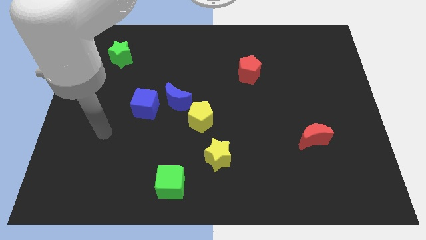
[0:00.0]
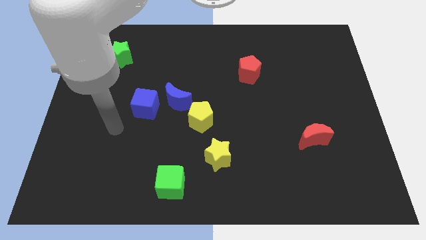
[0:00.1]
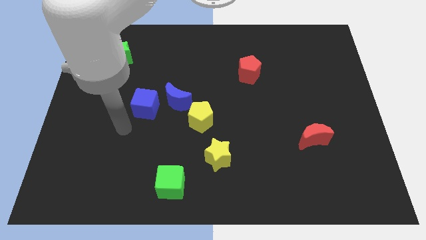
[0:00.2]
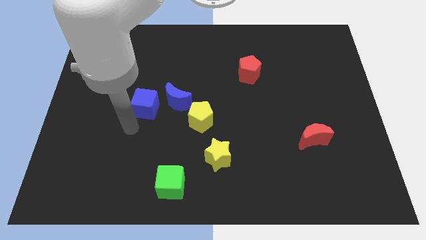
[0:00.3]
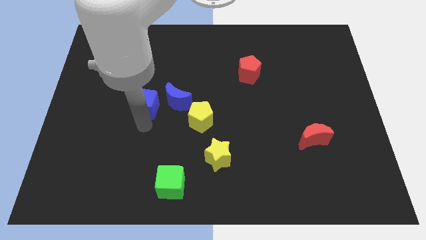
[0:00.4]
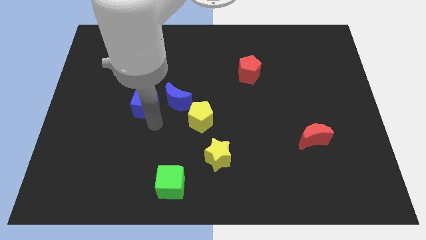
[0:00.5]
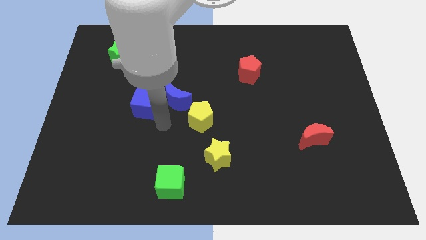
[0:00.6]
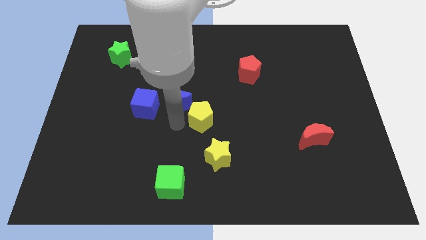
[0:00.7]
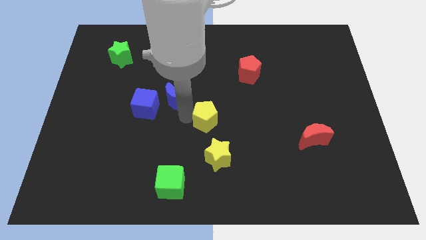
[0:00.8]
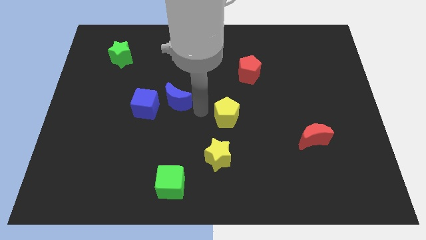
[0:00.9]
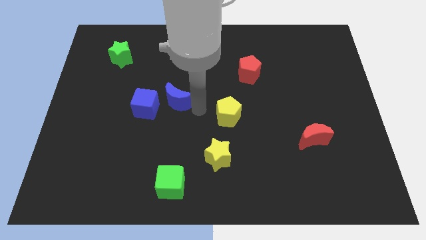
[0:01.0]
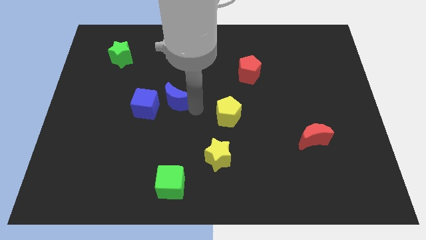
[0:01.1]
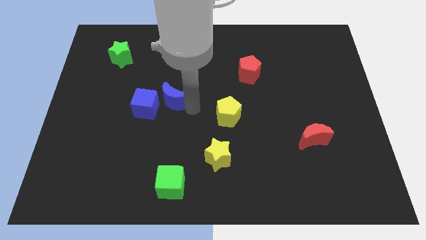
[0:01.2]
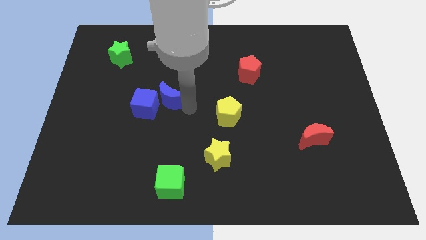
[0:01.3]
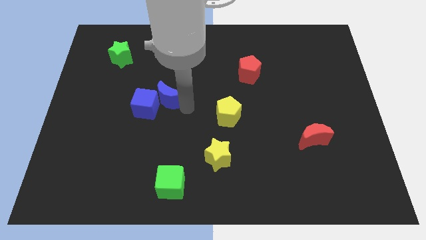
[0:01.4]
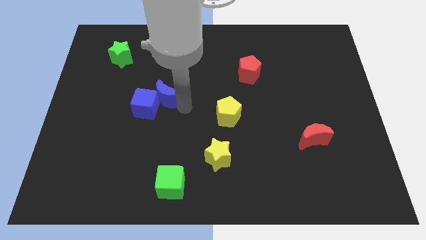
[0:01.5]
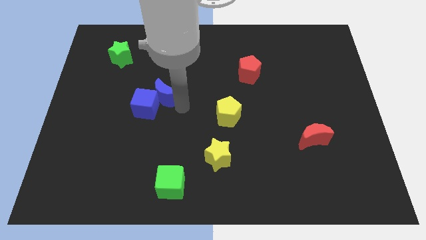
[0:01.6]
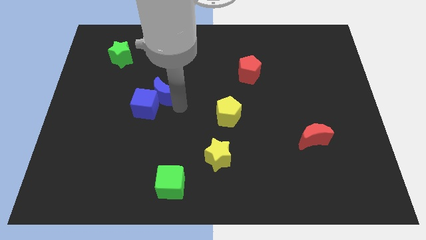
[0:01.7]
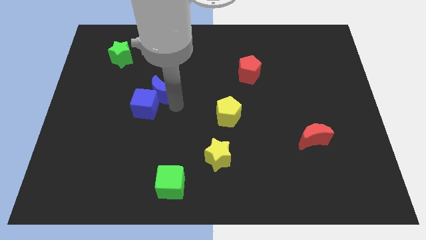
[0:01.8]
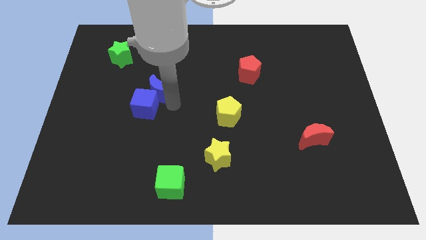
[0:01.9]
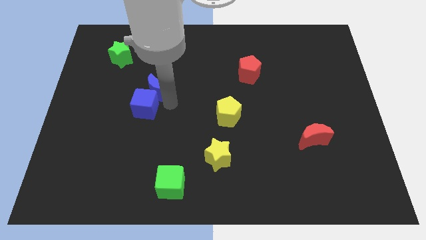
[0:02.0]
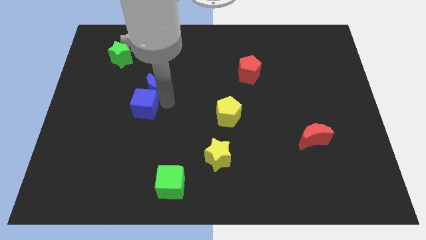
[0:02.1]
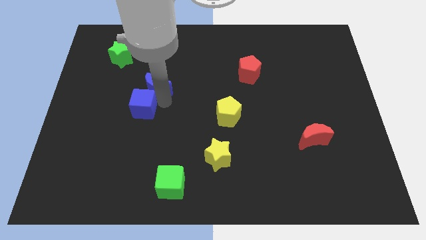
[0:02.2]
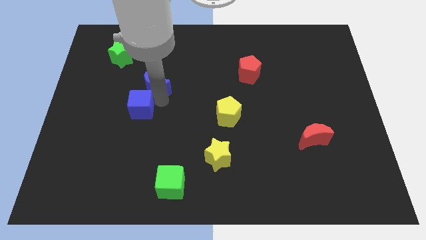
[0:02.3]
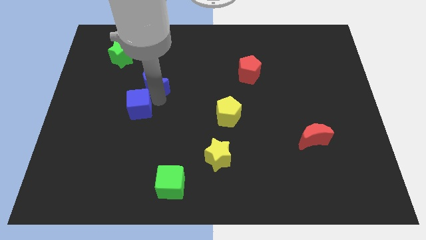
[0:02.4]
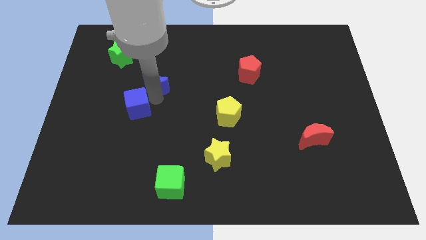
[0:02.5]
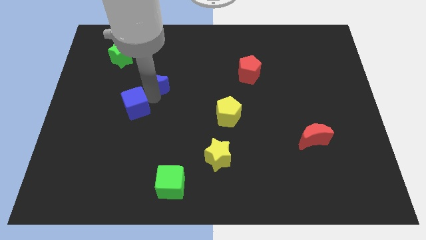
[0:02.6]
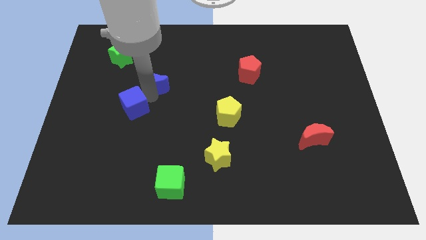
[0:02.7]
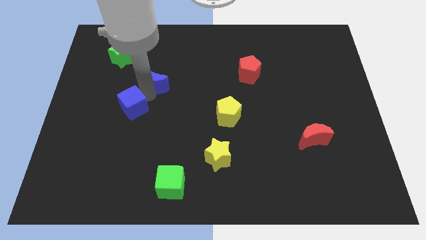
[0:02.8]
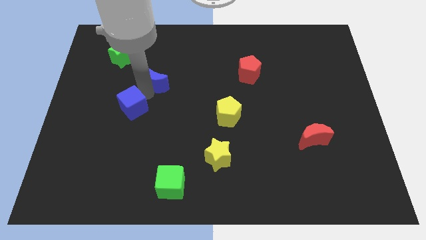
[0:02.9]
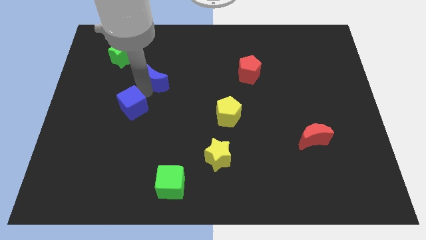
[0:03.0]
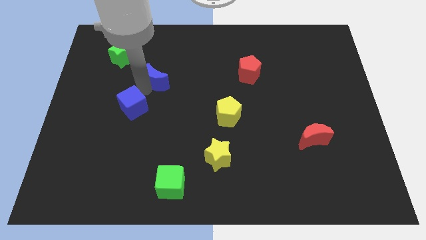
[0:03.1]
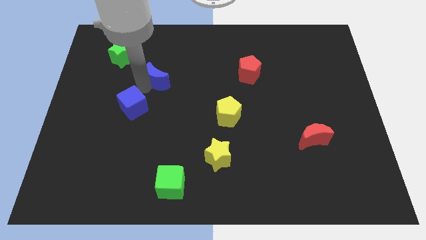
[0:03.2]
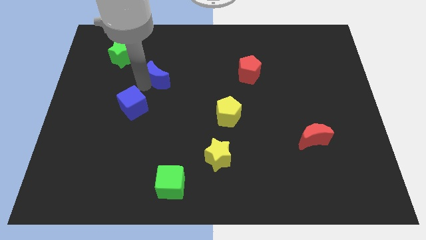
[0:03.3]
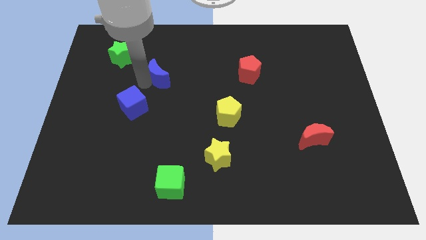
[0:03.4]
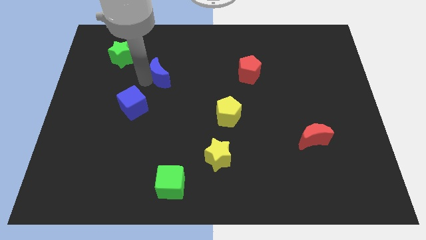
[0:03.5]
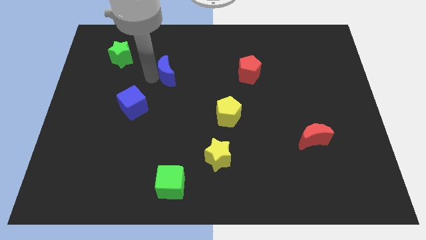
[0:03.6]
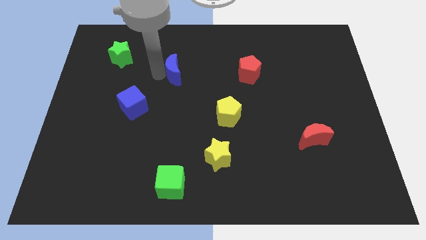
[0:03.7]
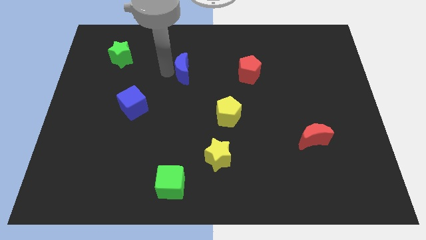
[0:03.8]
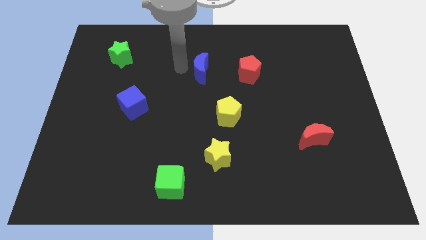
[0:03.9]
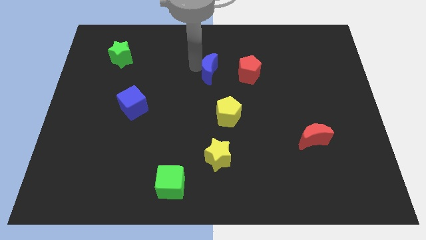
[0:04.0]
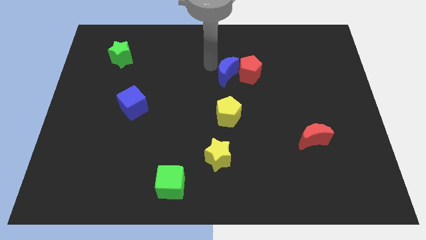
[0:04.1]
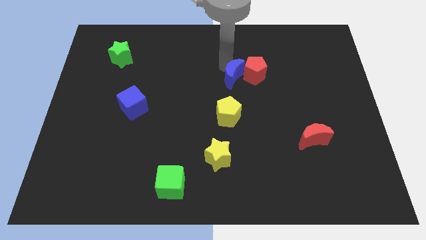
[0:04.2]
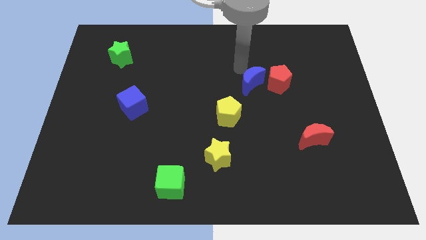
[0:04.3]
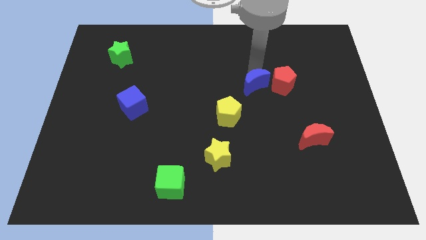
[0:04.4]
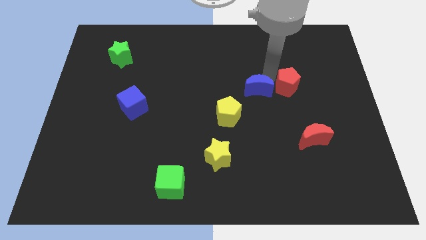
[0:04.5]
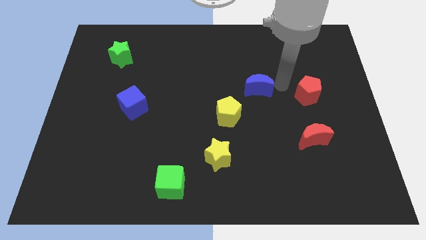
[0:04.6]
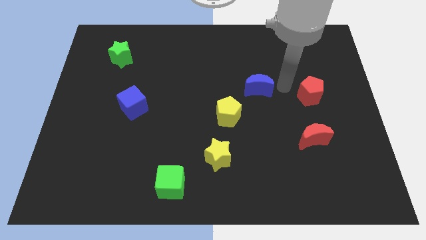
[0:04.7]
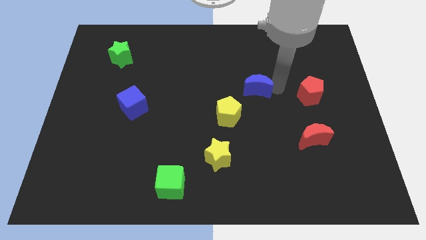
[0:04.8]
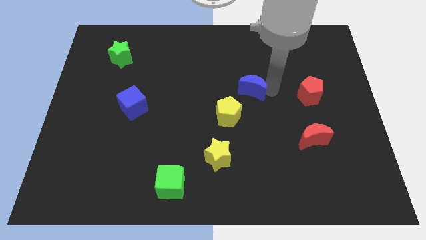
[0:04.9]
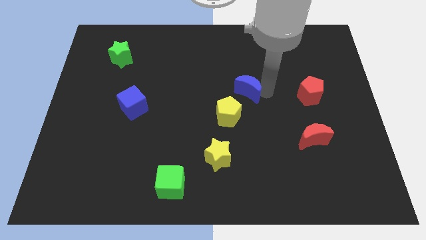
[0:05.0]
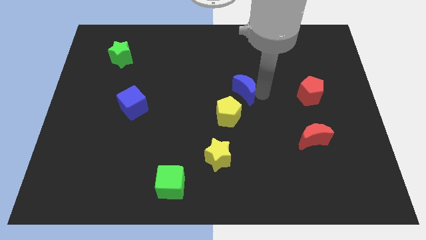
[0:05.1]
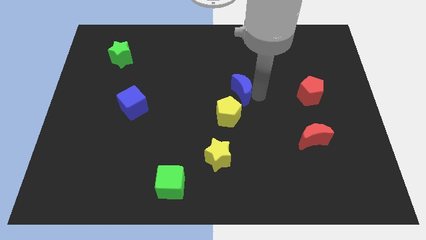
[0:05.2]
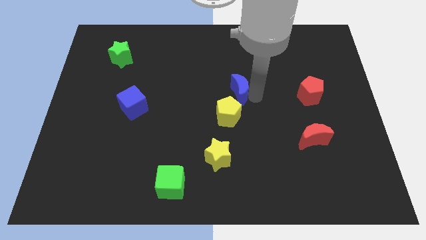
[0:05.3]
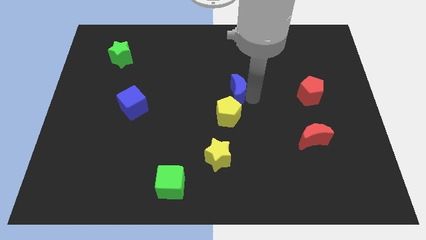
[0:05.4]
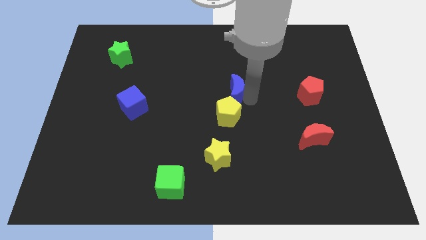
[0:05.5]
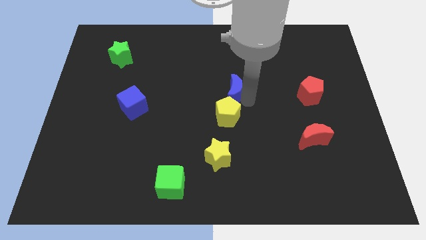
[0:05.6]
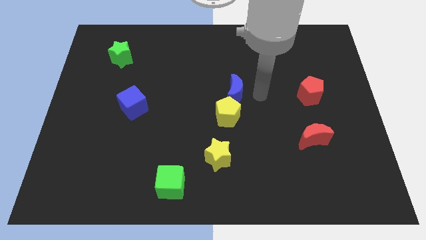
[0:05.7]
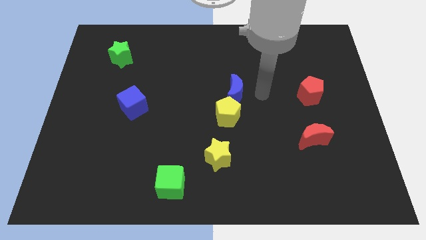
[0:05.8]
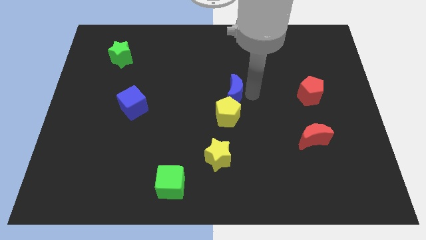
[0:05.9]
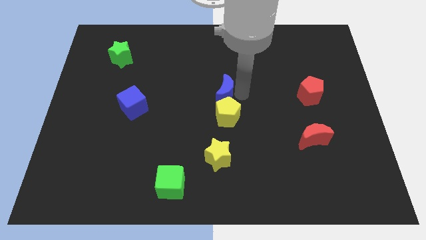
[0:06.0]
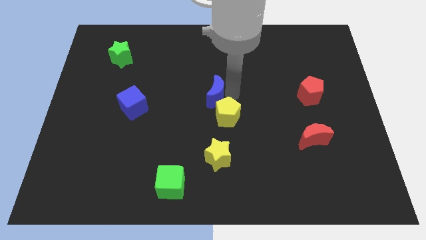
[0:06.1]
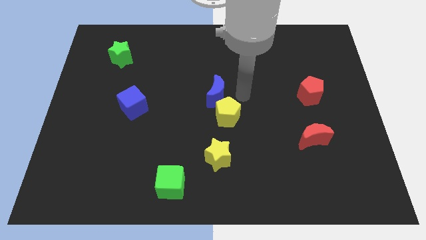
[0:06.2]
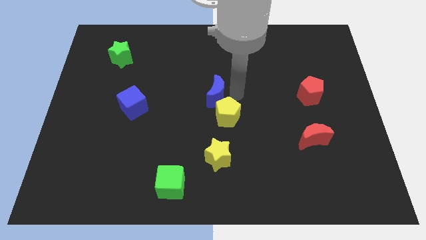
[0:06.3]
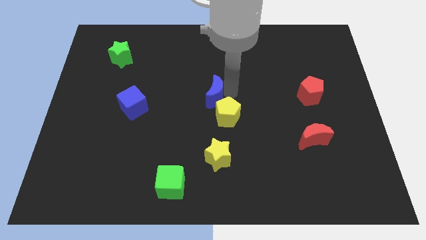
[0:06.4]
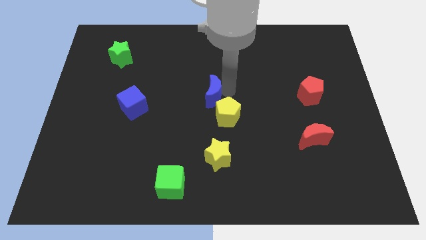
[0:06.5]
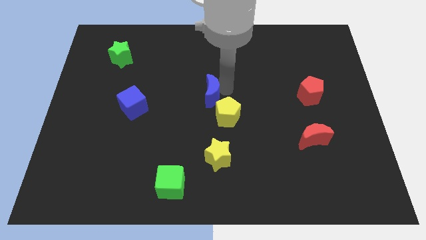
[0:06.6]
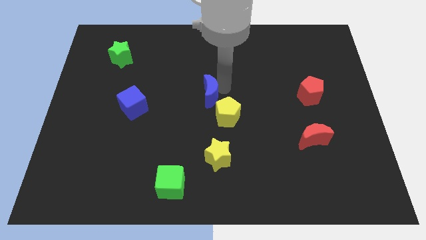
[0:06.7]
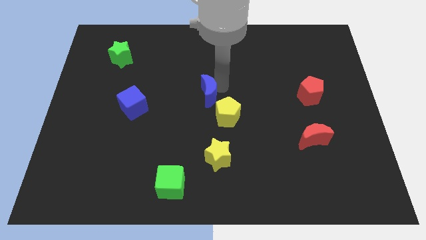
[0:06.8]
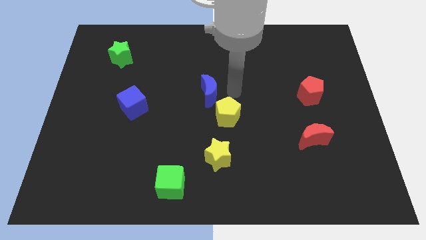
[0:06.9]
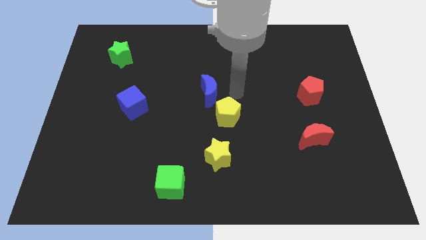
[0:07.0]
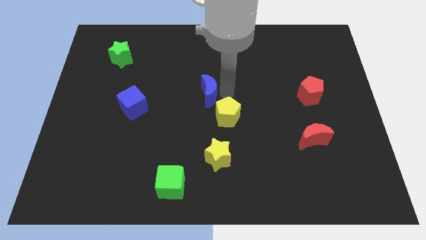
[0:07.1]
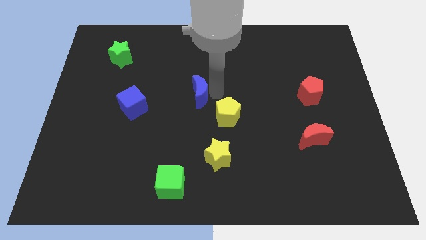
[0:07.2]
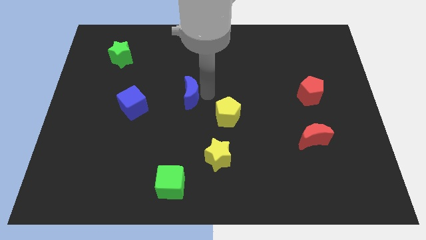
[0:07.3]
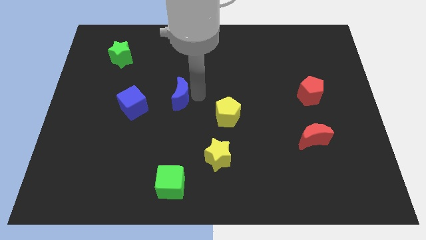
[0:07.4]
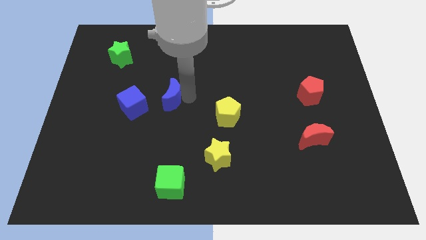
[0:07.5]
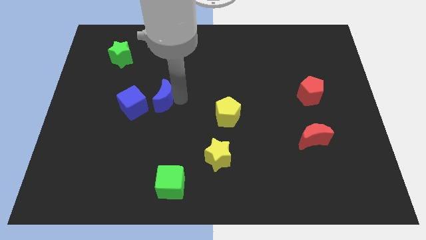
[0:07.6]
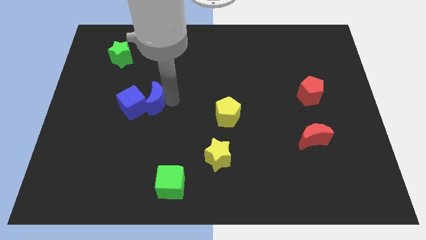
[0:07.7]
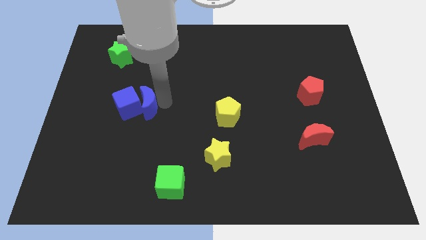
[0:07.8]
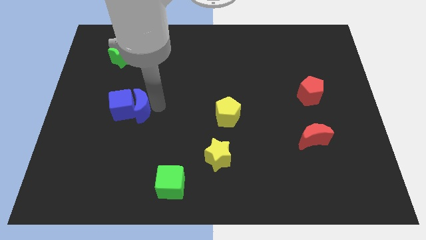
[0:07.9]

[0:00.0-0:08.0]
slightly slide the blue moon to the left
